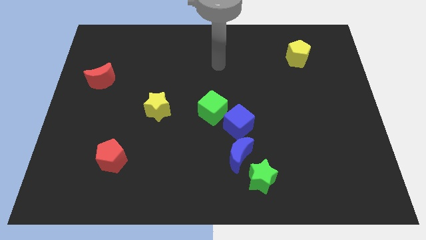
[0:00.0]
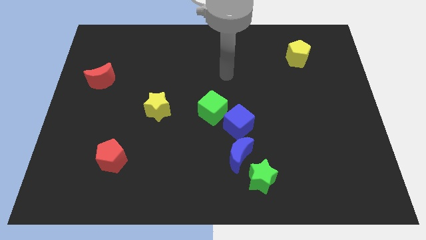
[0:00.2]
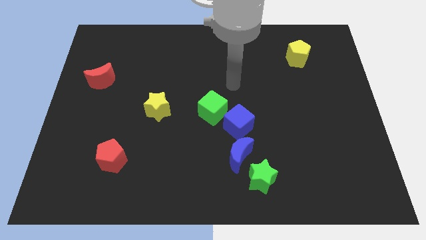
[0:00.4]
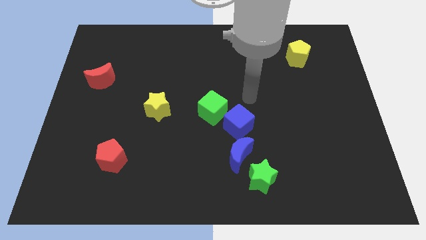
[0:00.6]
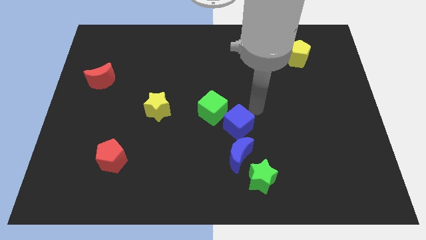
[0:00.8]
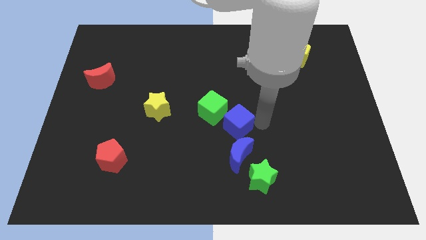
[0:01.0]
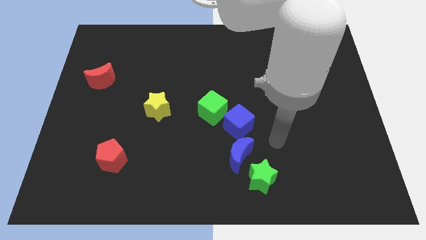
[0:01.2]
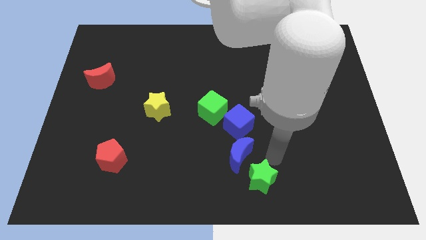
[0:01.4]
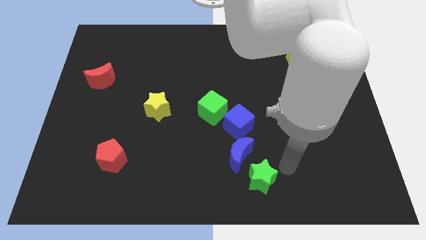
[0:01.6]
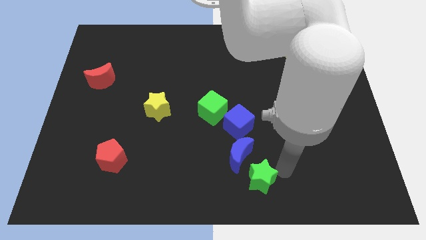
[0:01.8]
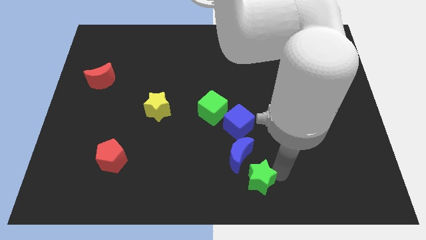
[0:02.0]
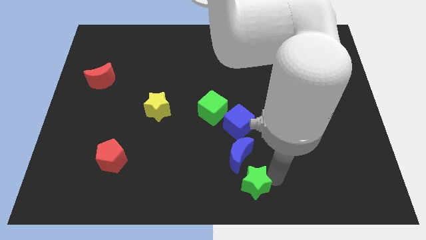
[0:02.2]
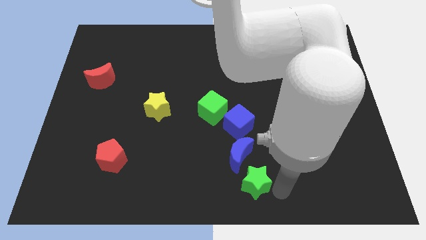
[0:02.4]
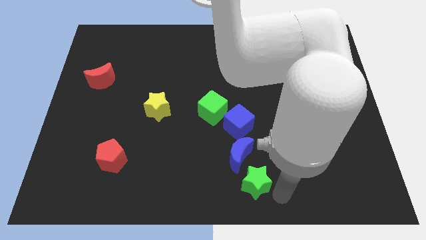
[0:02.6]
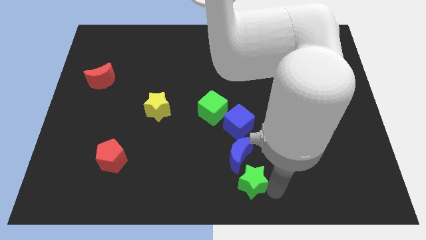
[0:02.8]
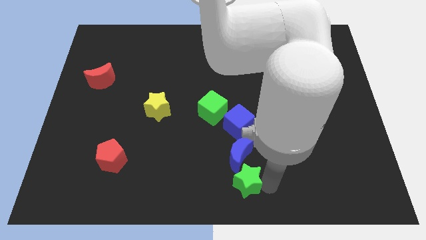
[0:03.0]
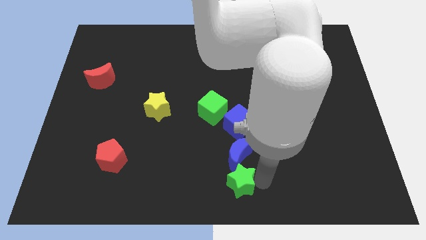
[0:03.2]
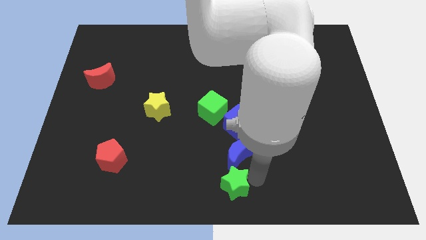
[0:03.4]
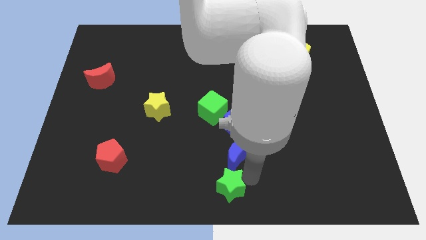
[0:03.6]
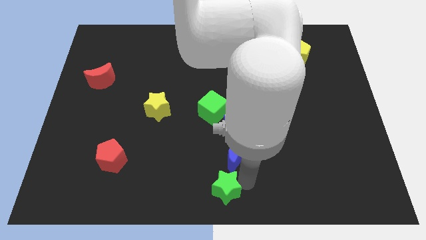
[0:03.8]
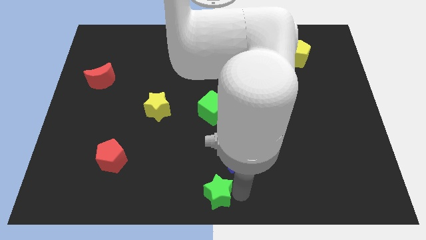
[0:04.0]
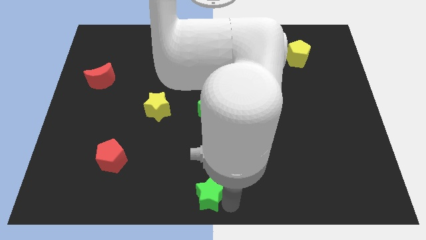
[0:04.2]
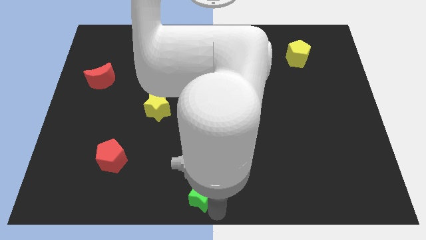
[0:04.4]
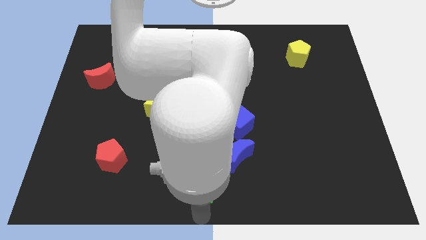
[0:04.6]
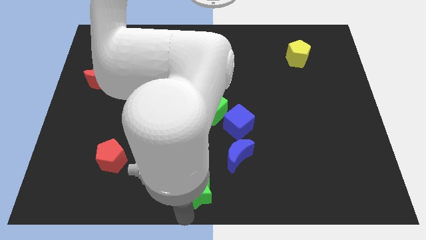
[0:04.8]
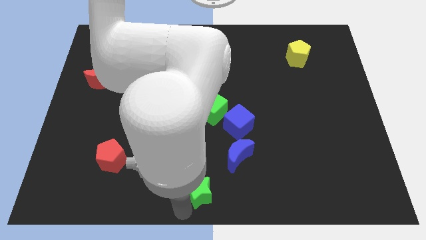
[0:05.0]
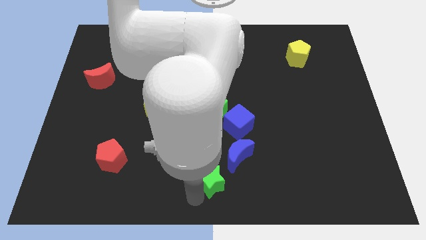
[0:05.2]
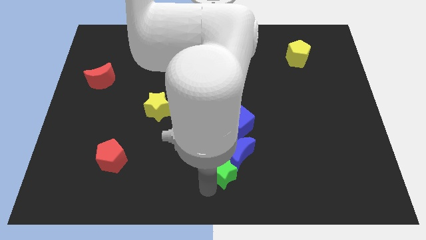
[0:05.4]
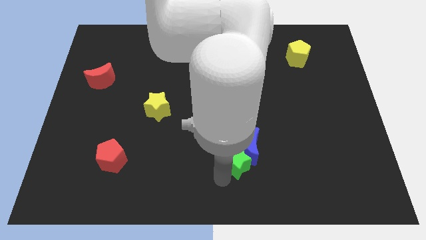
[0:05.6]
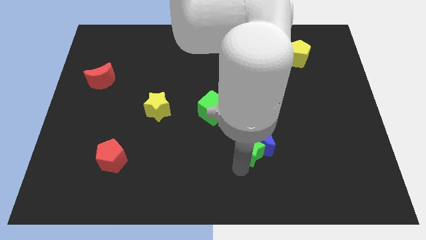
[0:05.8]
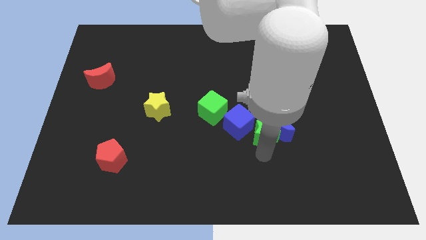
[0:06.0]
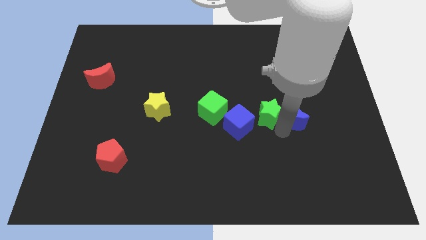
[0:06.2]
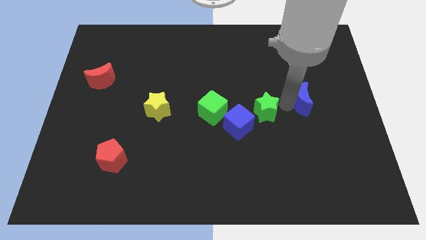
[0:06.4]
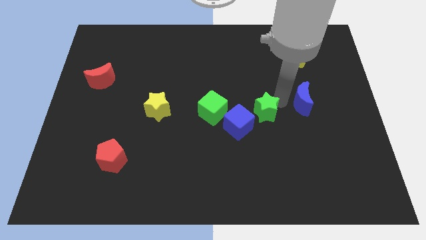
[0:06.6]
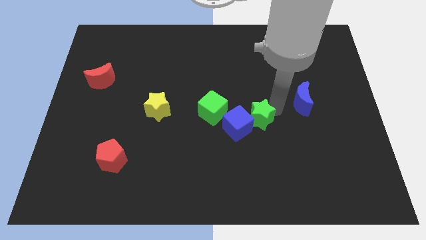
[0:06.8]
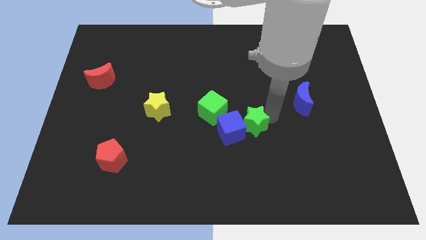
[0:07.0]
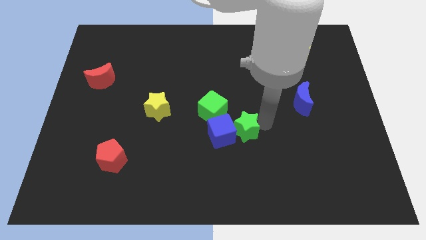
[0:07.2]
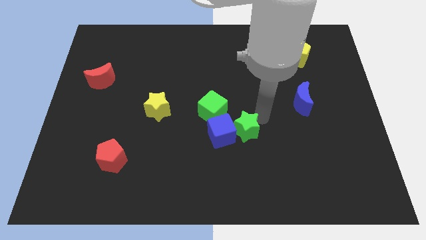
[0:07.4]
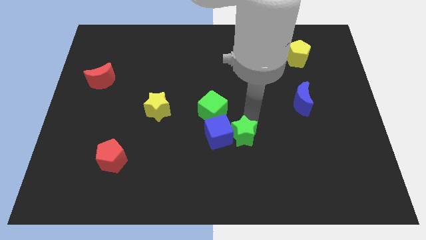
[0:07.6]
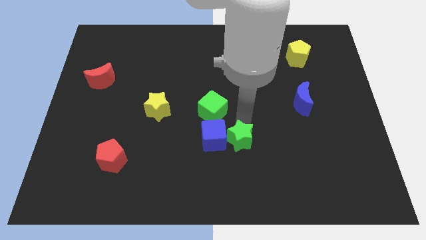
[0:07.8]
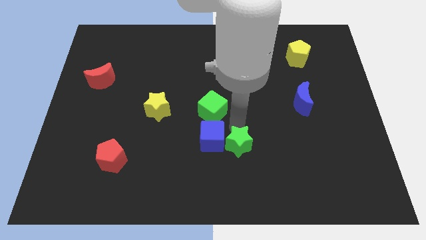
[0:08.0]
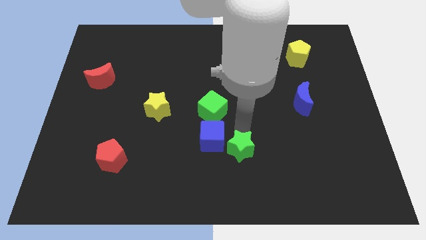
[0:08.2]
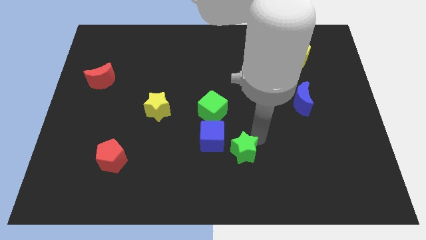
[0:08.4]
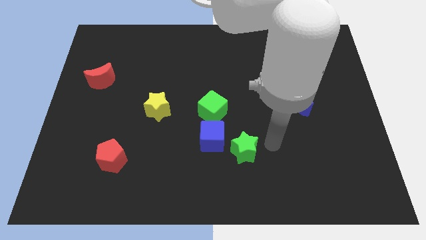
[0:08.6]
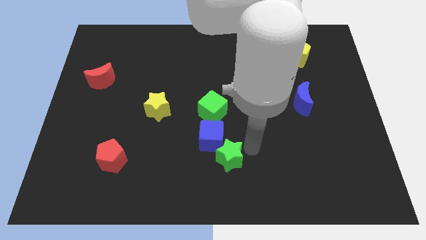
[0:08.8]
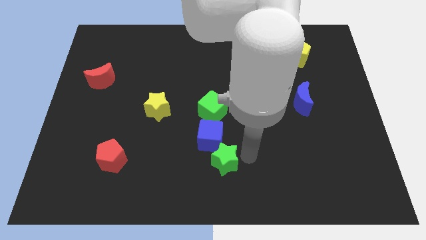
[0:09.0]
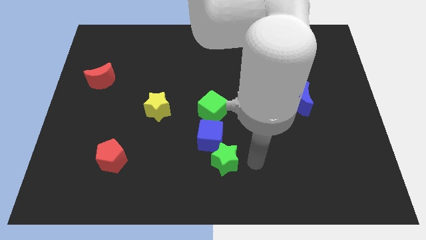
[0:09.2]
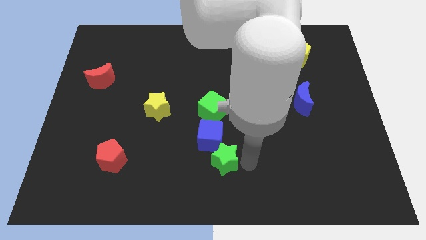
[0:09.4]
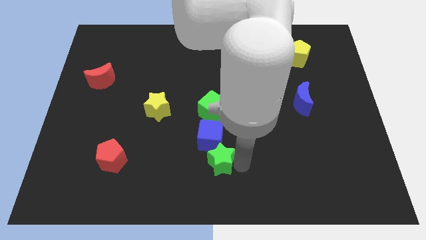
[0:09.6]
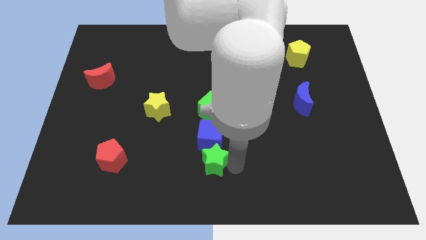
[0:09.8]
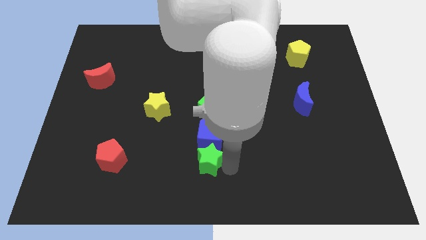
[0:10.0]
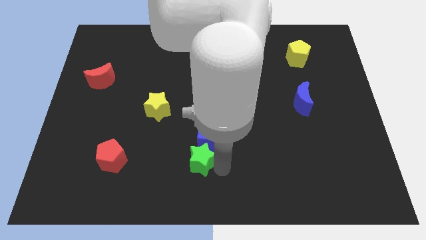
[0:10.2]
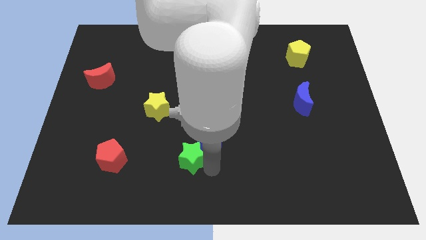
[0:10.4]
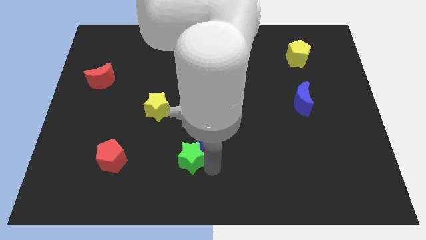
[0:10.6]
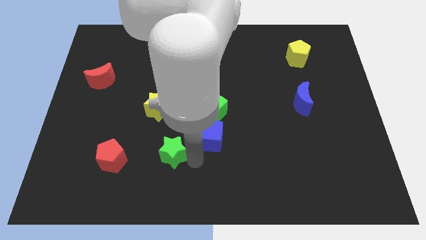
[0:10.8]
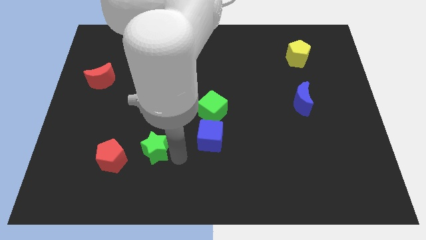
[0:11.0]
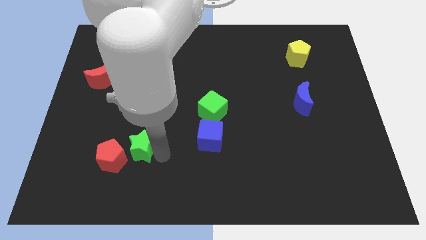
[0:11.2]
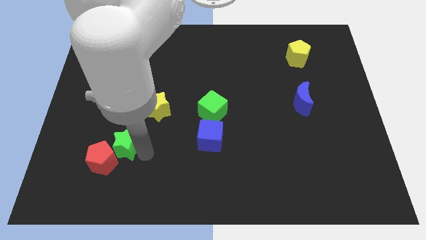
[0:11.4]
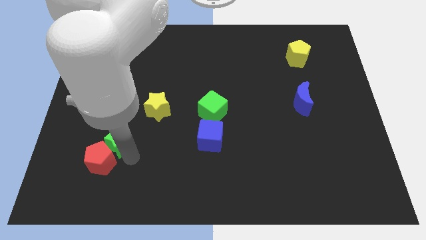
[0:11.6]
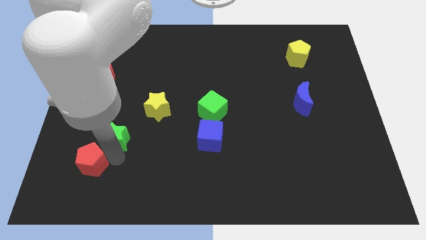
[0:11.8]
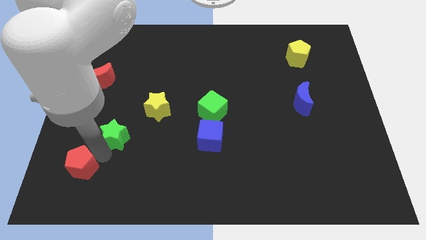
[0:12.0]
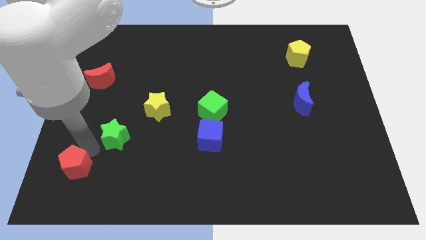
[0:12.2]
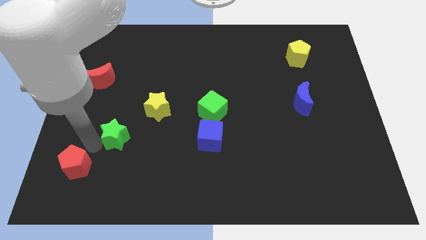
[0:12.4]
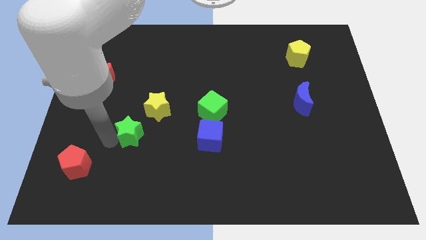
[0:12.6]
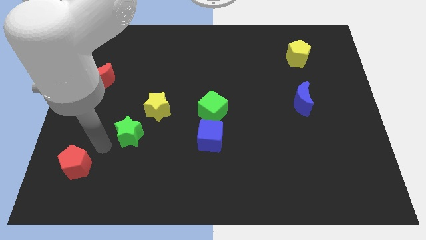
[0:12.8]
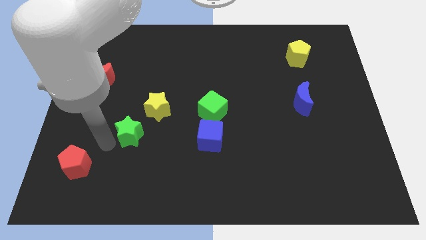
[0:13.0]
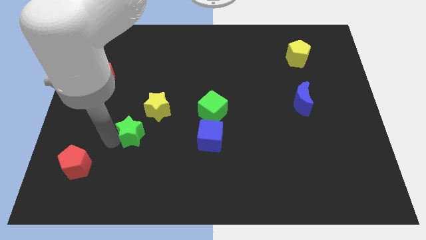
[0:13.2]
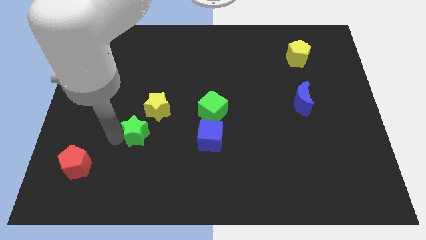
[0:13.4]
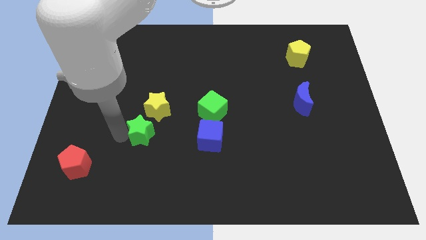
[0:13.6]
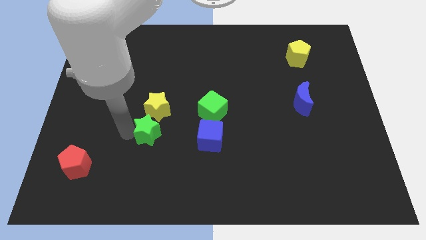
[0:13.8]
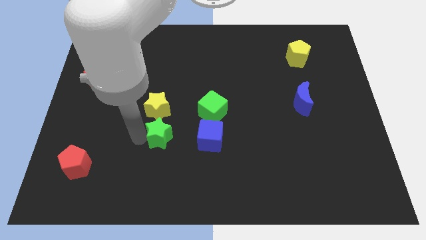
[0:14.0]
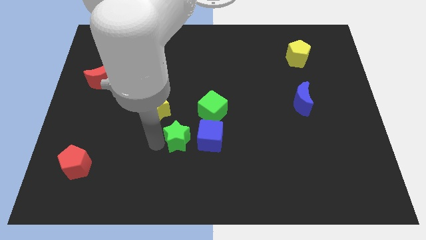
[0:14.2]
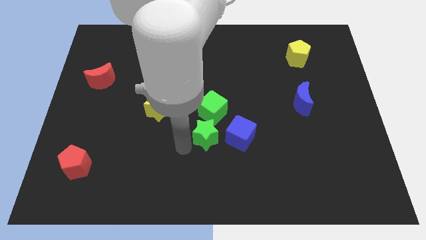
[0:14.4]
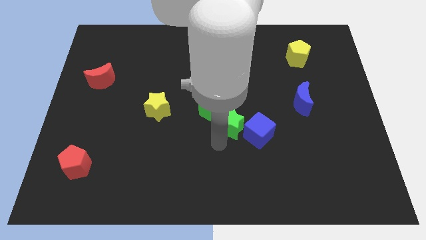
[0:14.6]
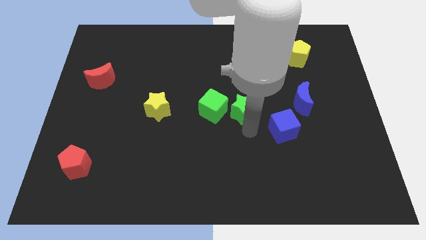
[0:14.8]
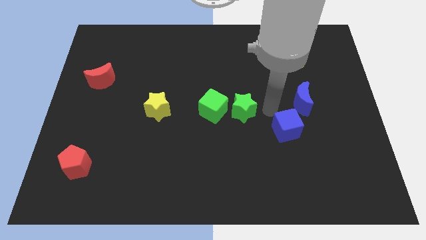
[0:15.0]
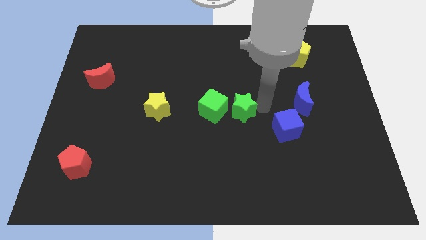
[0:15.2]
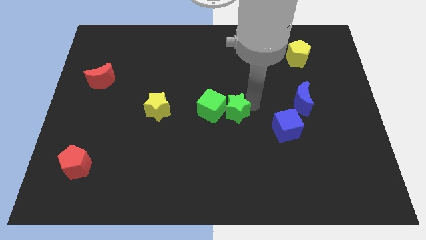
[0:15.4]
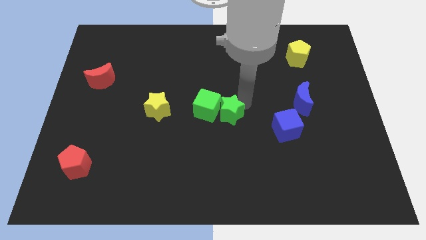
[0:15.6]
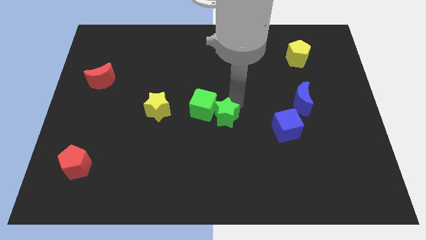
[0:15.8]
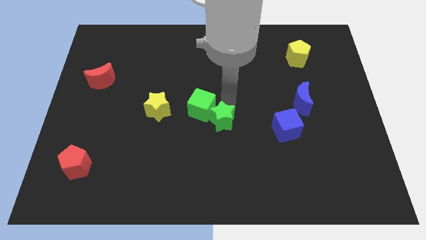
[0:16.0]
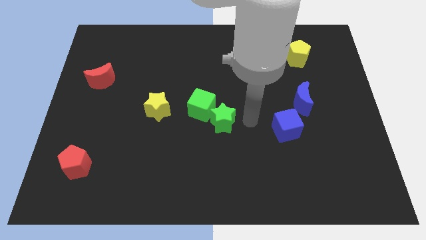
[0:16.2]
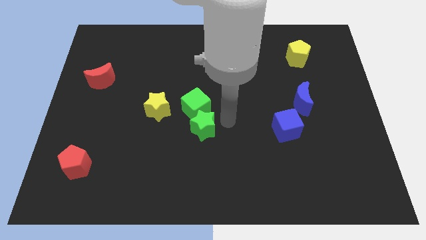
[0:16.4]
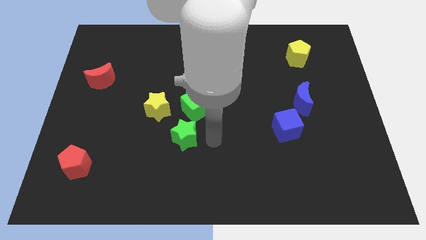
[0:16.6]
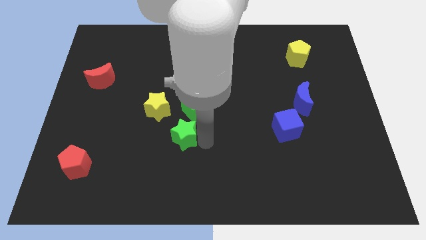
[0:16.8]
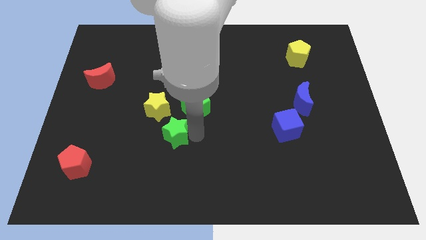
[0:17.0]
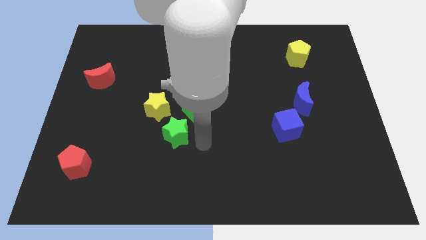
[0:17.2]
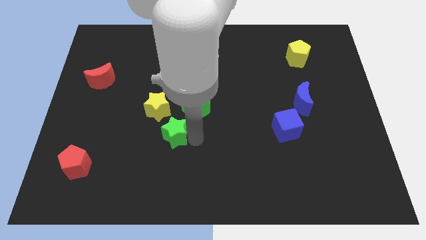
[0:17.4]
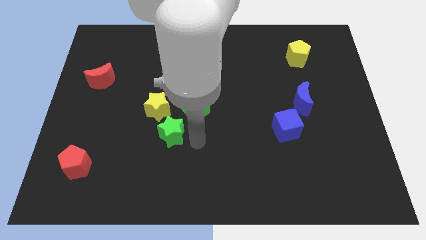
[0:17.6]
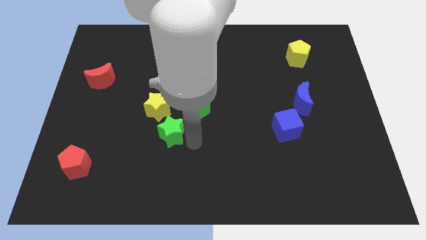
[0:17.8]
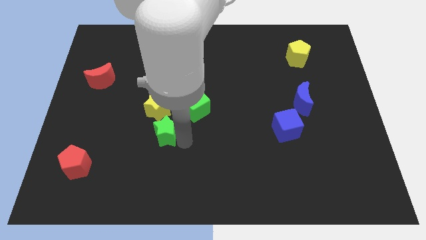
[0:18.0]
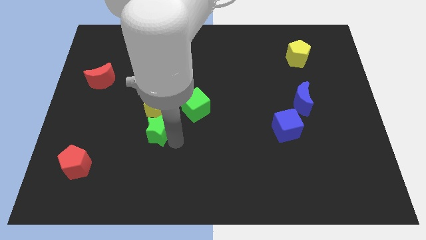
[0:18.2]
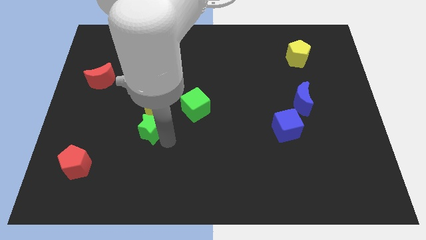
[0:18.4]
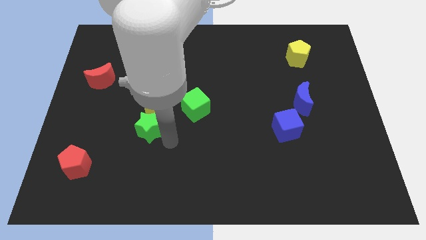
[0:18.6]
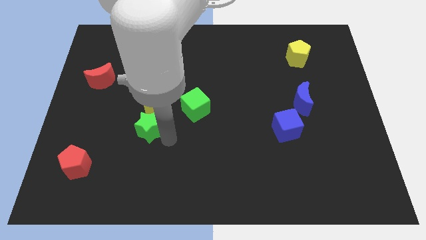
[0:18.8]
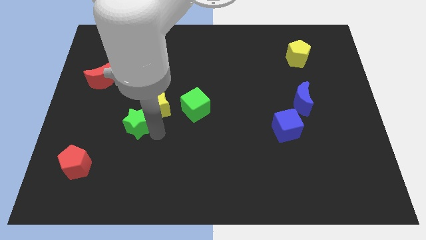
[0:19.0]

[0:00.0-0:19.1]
push the green star left of the yellow star
